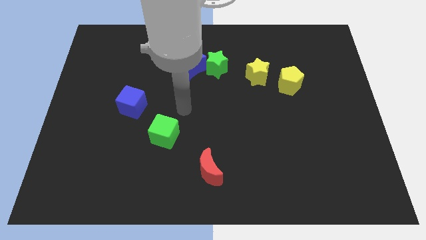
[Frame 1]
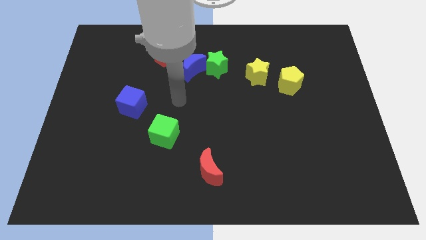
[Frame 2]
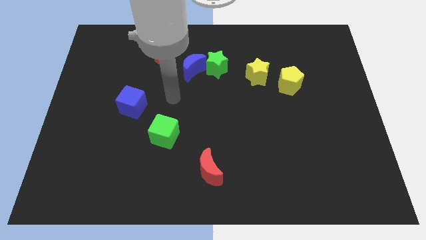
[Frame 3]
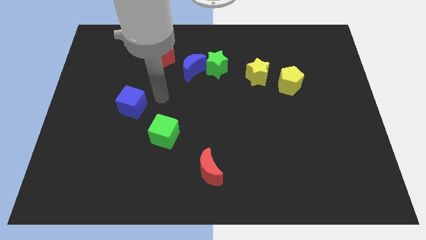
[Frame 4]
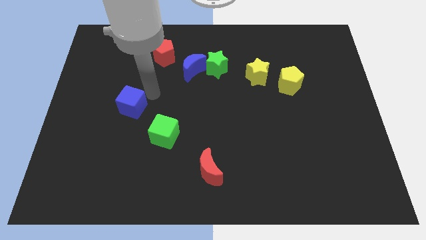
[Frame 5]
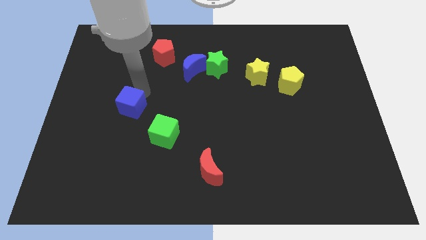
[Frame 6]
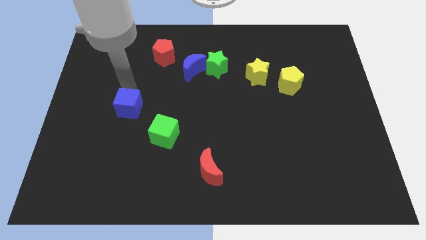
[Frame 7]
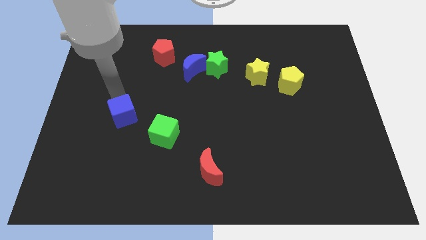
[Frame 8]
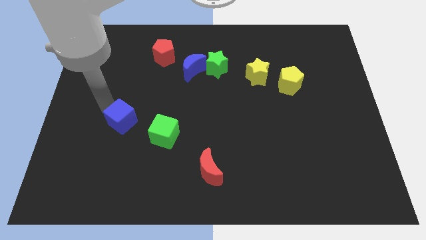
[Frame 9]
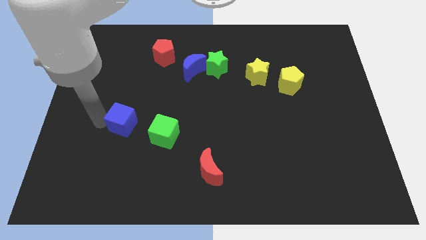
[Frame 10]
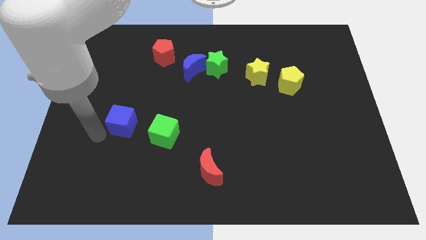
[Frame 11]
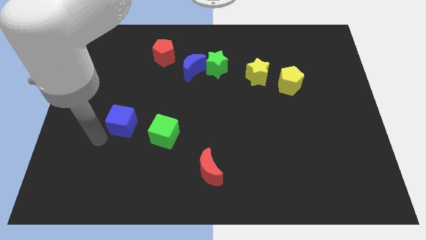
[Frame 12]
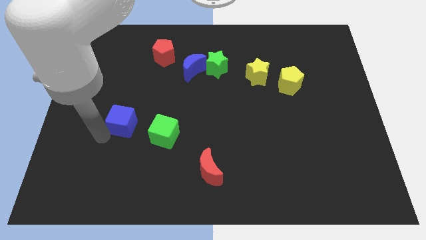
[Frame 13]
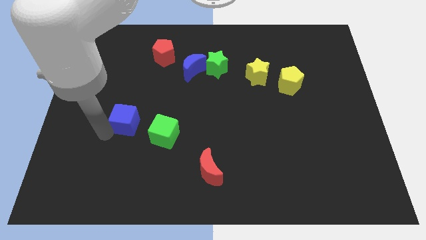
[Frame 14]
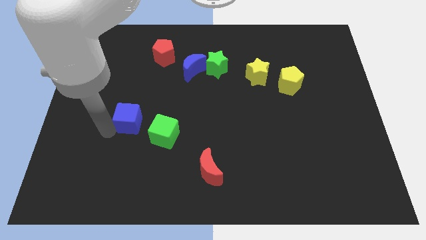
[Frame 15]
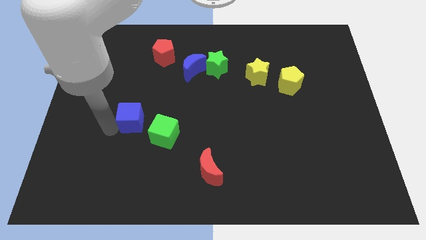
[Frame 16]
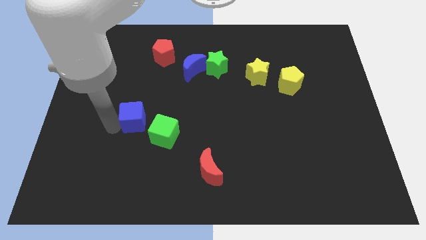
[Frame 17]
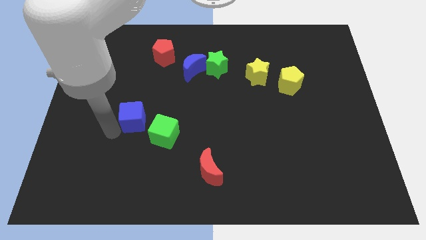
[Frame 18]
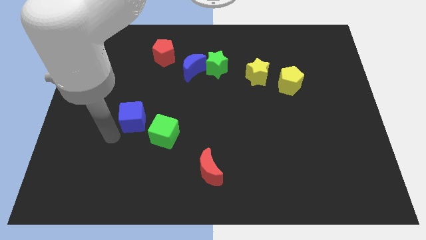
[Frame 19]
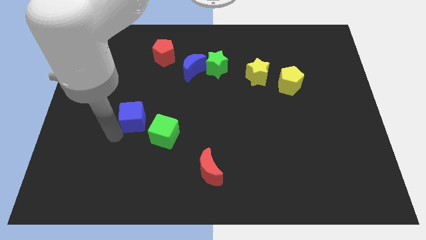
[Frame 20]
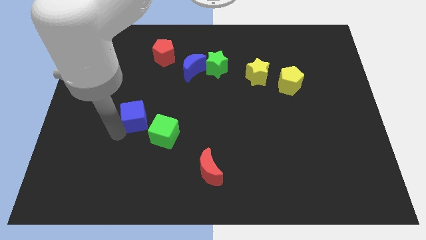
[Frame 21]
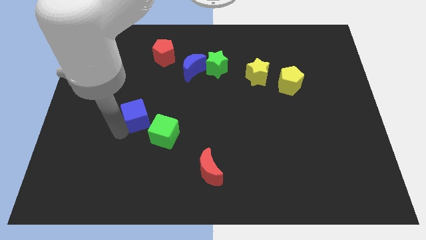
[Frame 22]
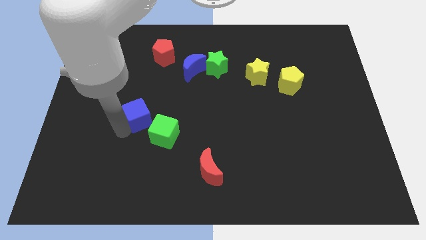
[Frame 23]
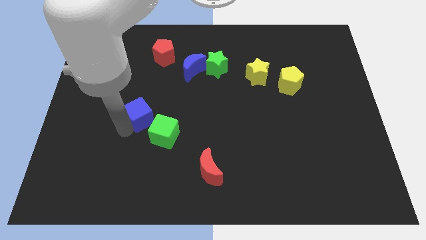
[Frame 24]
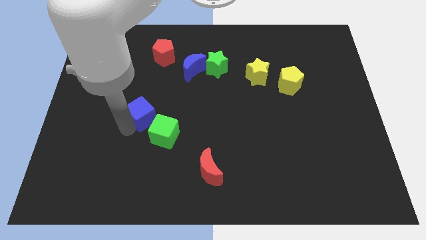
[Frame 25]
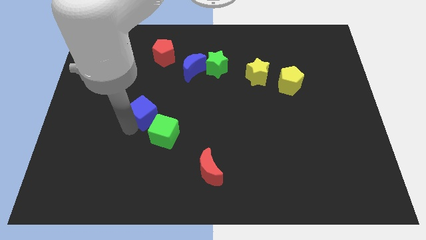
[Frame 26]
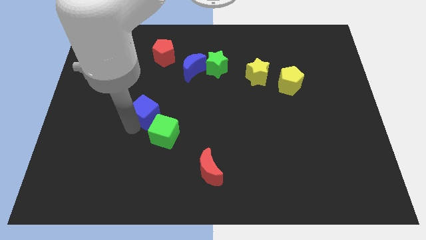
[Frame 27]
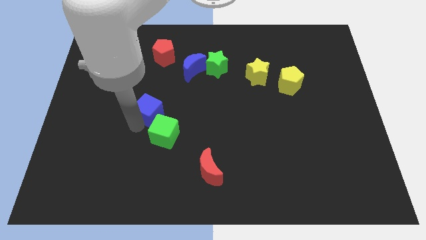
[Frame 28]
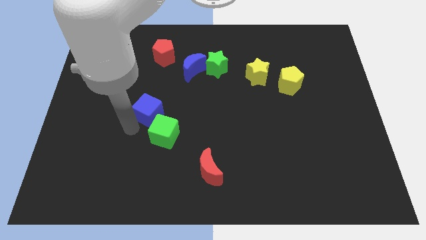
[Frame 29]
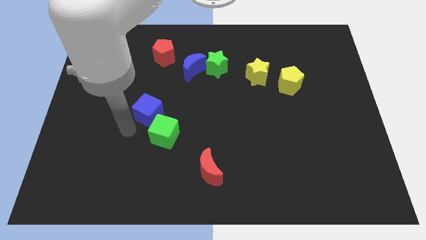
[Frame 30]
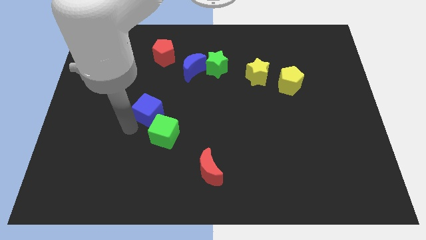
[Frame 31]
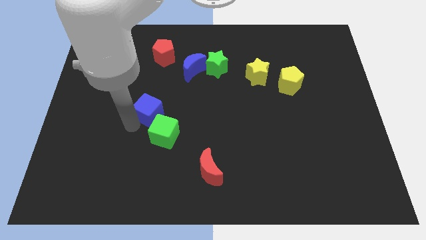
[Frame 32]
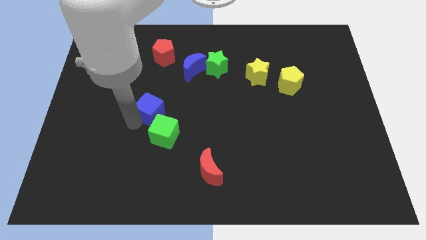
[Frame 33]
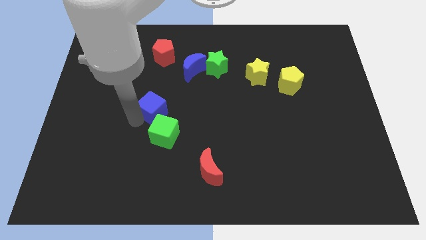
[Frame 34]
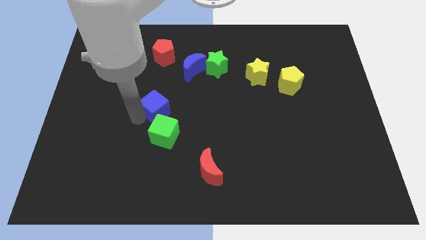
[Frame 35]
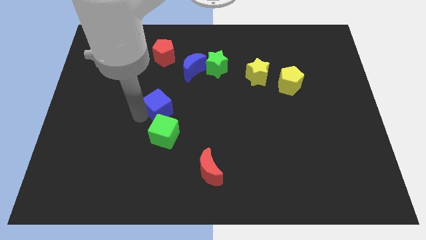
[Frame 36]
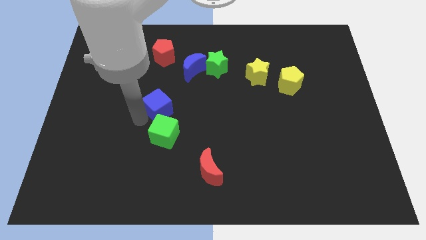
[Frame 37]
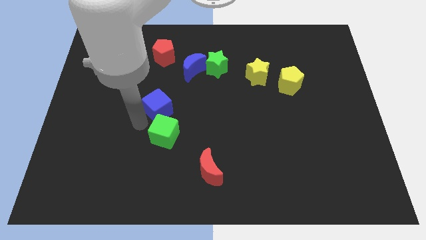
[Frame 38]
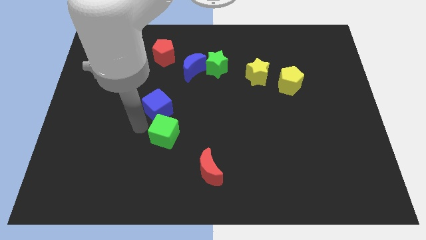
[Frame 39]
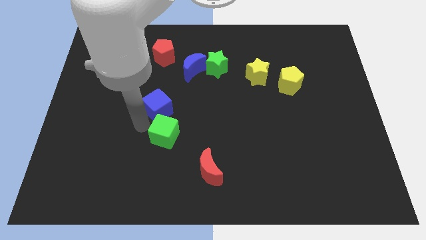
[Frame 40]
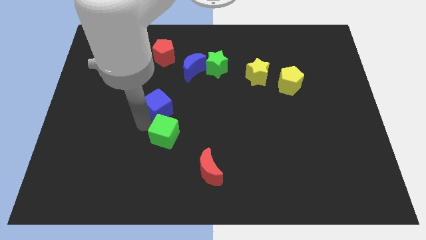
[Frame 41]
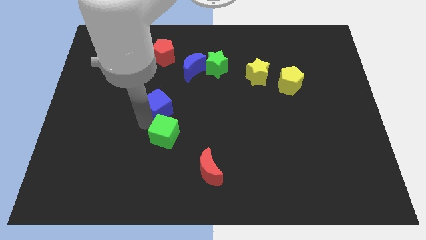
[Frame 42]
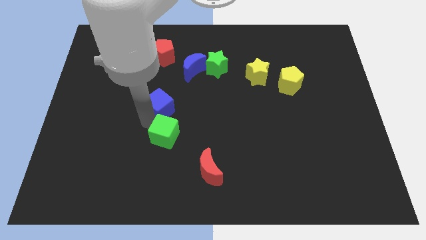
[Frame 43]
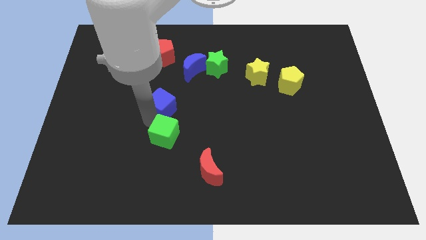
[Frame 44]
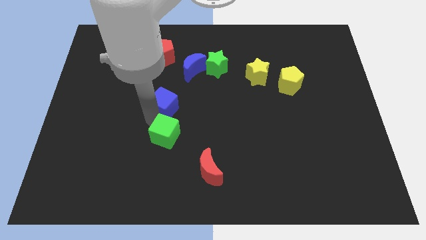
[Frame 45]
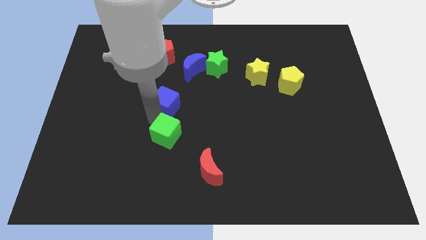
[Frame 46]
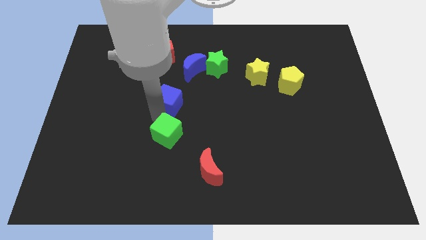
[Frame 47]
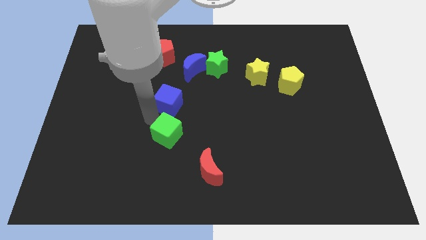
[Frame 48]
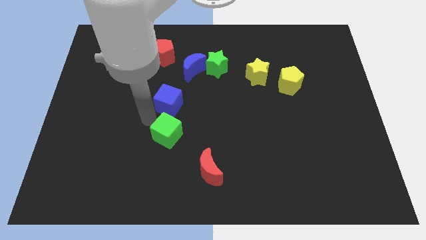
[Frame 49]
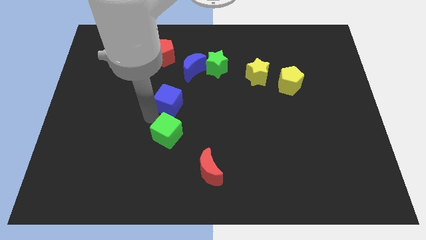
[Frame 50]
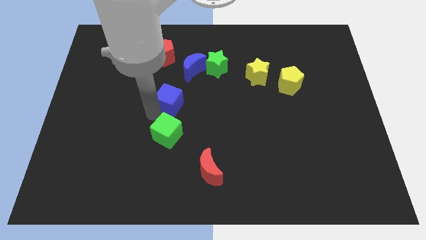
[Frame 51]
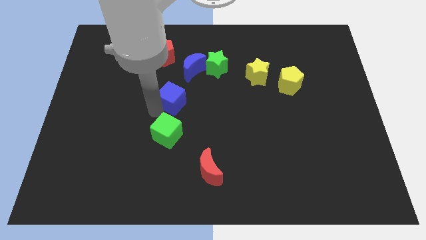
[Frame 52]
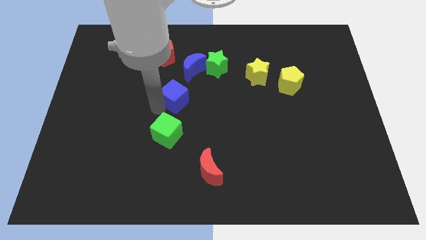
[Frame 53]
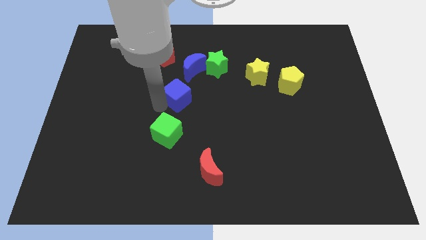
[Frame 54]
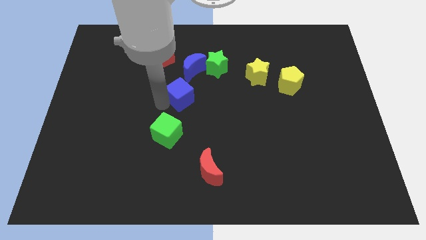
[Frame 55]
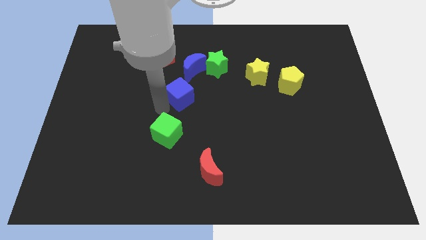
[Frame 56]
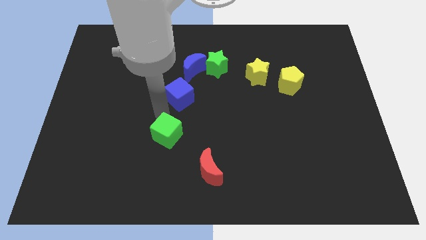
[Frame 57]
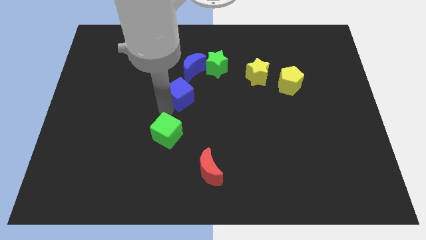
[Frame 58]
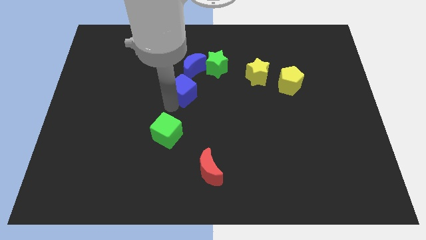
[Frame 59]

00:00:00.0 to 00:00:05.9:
put the blue cube to the bottom left of the green star

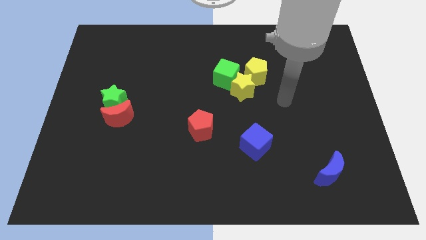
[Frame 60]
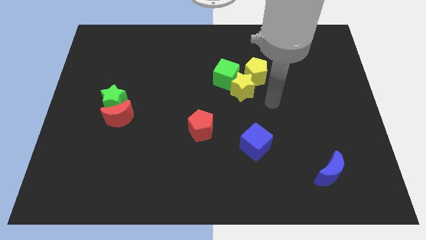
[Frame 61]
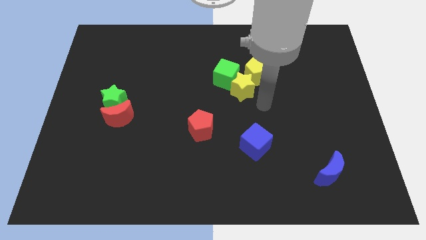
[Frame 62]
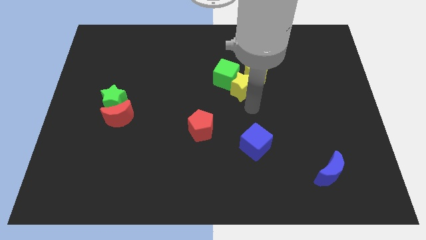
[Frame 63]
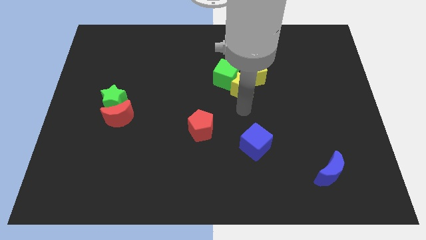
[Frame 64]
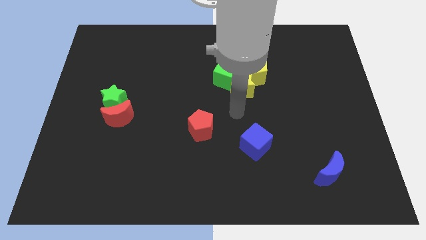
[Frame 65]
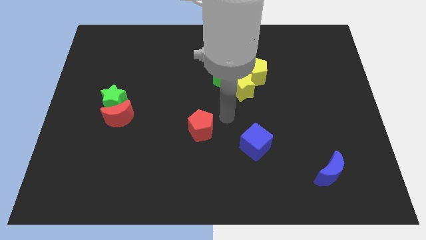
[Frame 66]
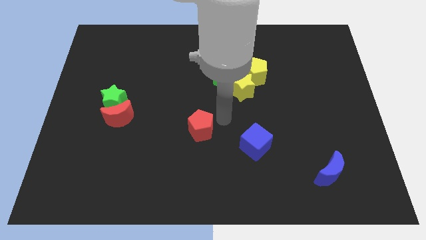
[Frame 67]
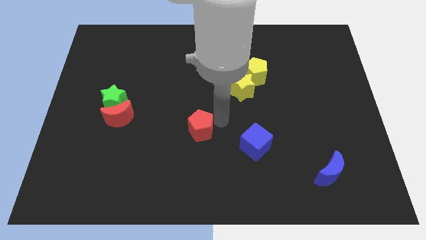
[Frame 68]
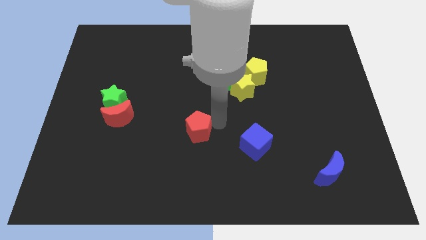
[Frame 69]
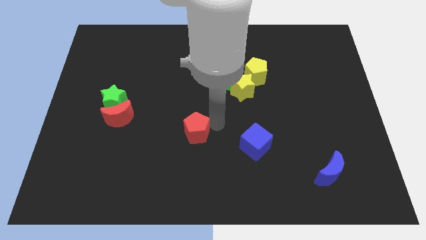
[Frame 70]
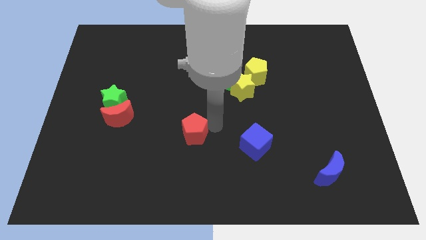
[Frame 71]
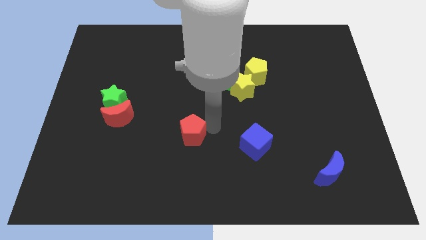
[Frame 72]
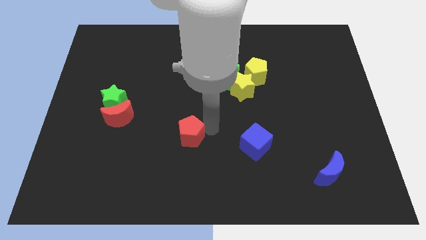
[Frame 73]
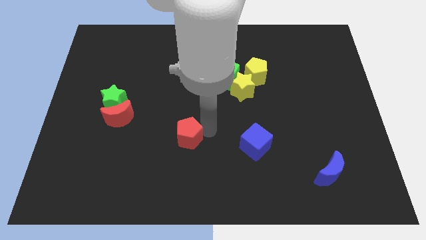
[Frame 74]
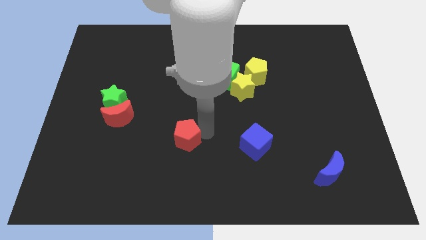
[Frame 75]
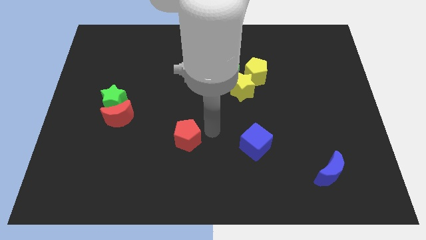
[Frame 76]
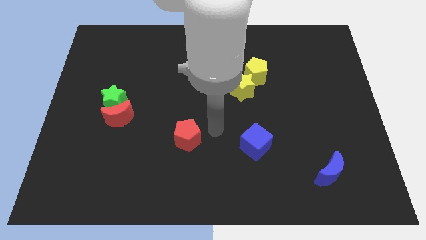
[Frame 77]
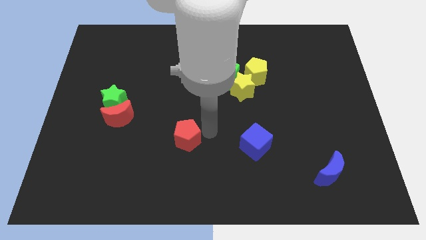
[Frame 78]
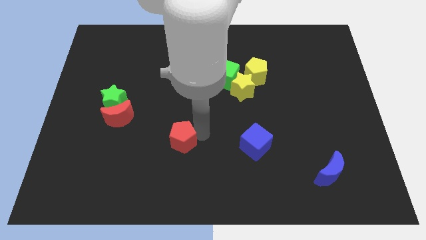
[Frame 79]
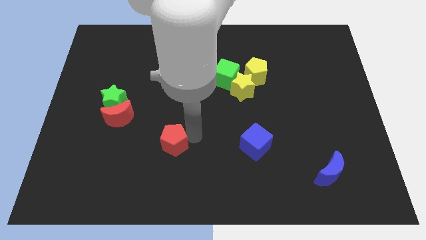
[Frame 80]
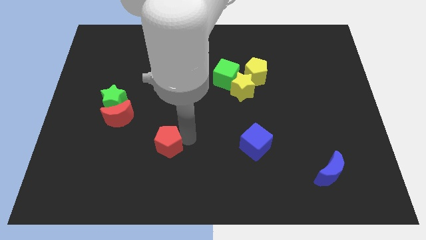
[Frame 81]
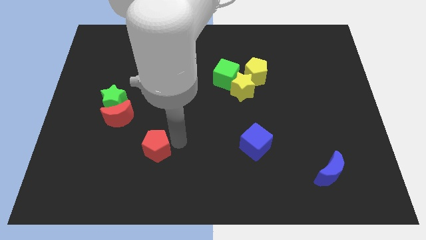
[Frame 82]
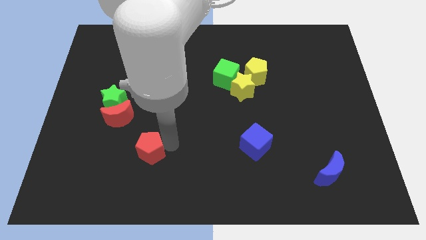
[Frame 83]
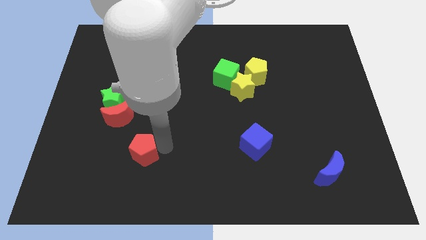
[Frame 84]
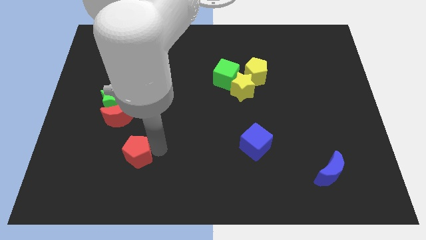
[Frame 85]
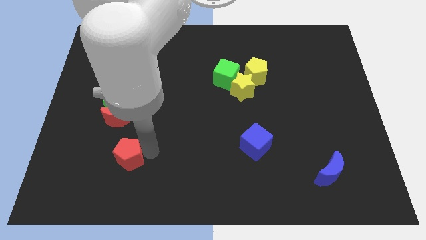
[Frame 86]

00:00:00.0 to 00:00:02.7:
push the red pentagon to the bottom of the red moon
